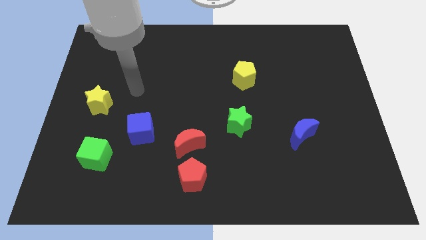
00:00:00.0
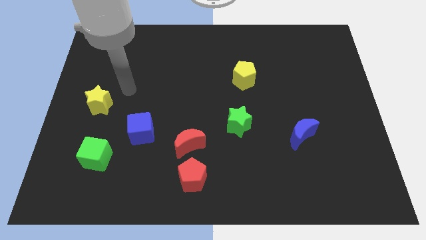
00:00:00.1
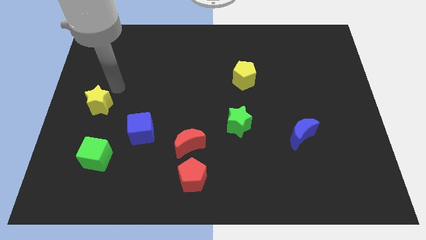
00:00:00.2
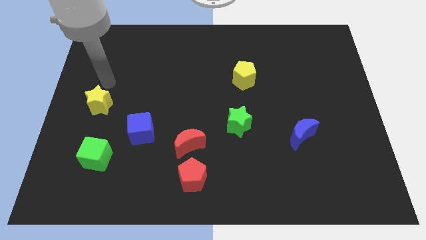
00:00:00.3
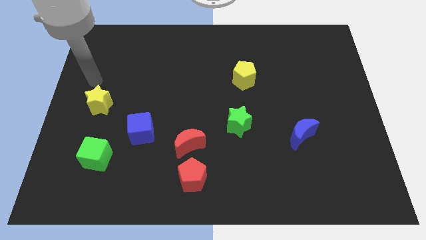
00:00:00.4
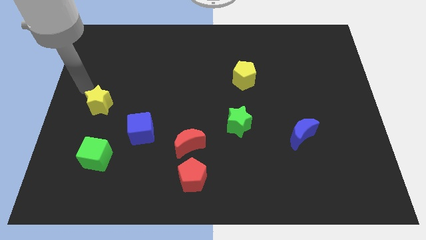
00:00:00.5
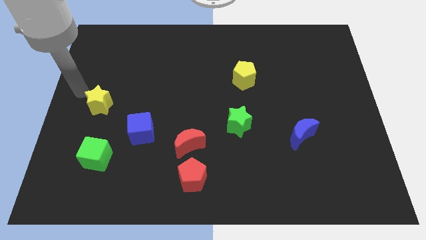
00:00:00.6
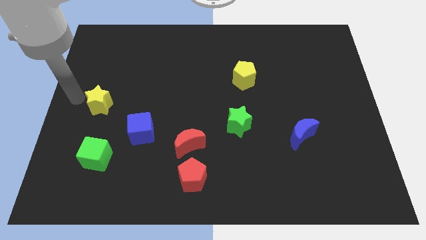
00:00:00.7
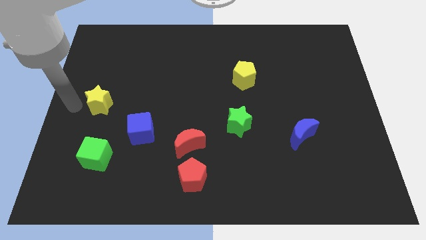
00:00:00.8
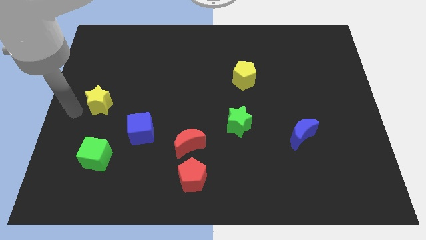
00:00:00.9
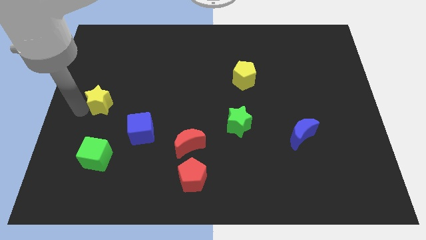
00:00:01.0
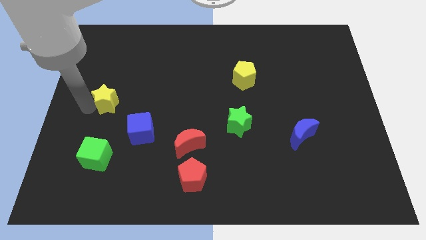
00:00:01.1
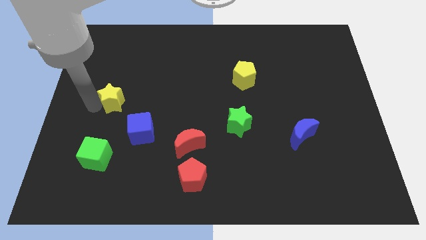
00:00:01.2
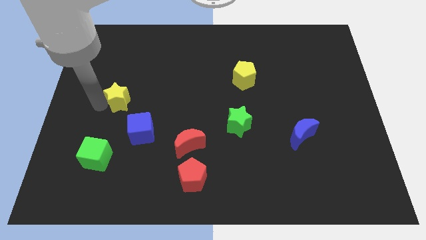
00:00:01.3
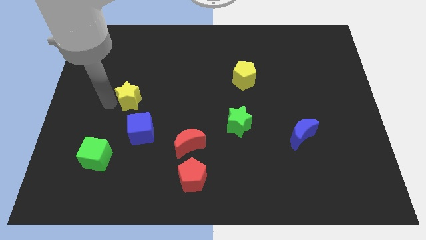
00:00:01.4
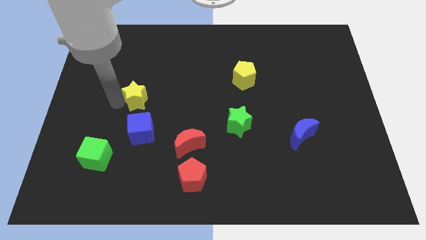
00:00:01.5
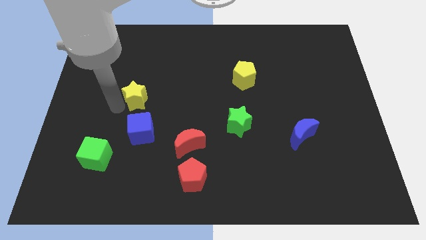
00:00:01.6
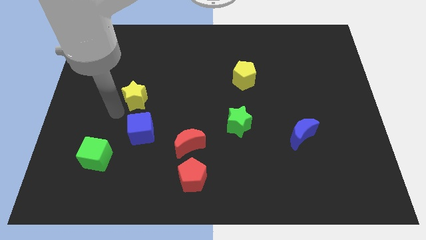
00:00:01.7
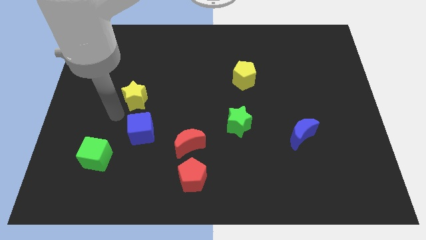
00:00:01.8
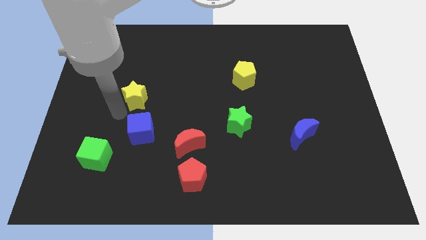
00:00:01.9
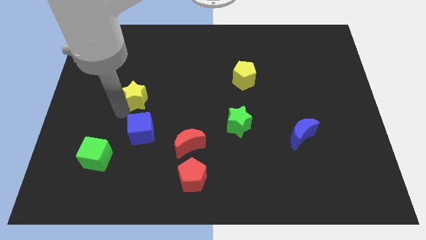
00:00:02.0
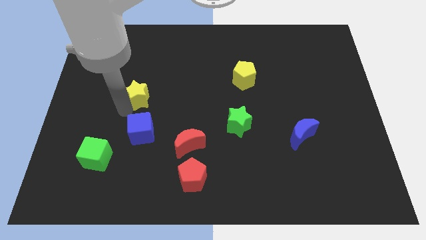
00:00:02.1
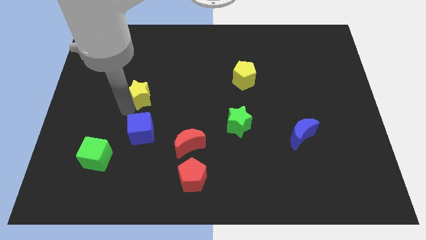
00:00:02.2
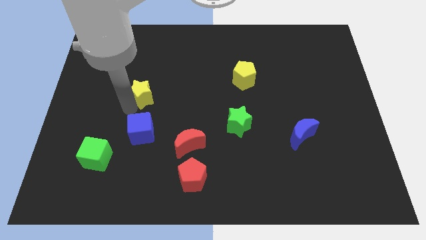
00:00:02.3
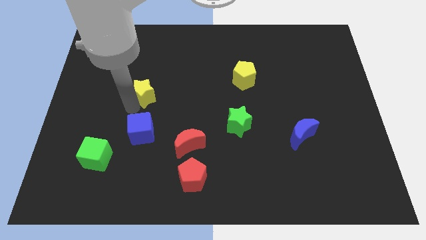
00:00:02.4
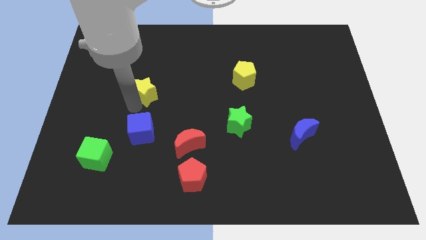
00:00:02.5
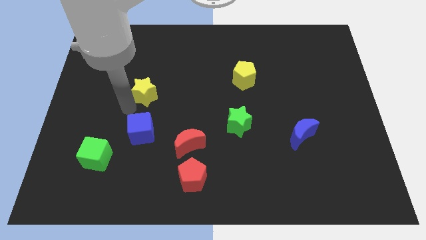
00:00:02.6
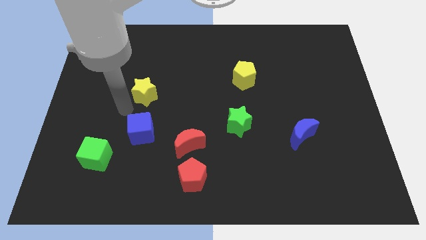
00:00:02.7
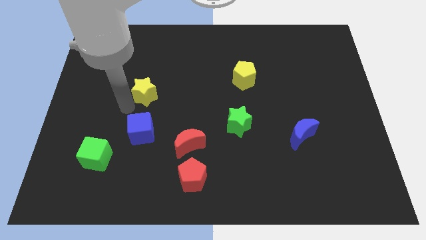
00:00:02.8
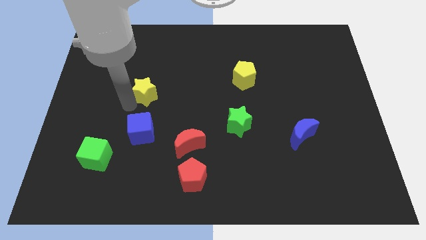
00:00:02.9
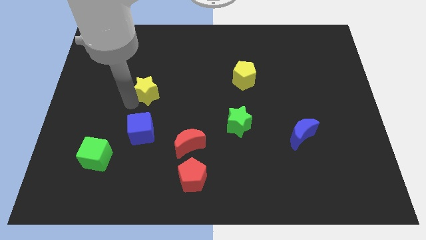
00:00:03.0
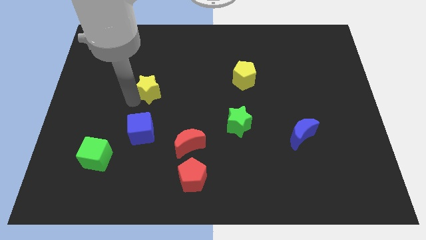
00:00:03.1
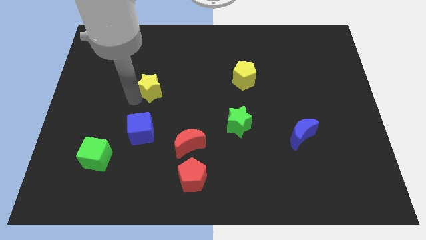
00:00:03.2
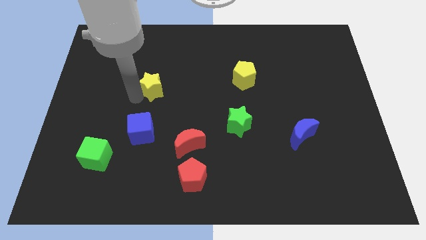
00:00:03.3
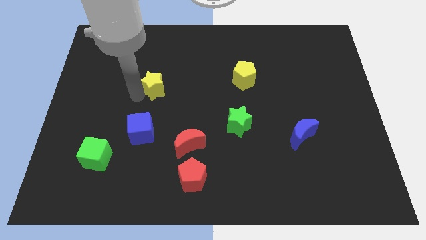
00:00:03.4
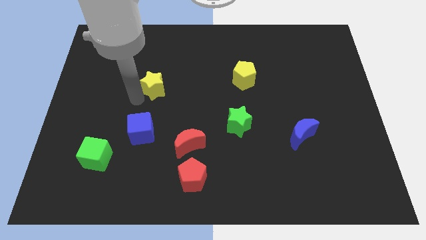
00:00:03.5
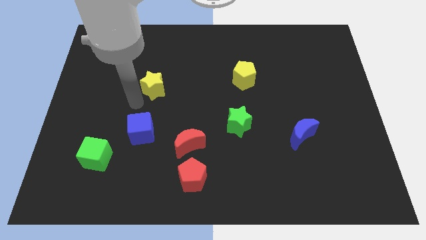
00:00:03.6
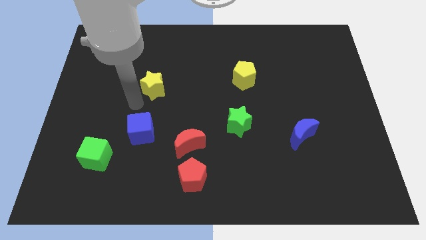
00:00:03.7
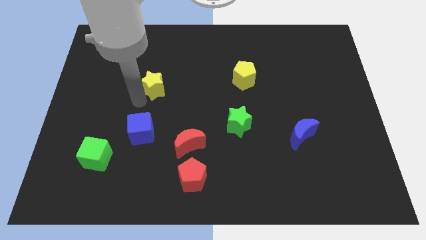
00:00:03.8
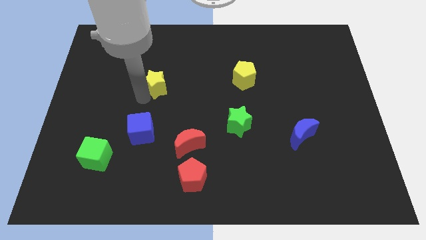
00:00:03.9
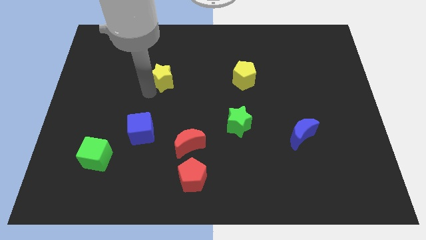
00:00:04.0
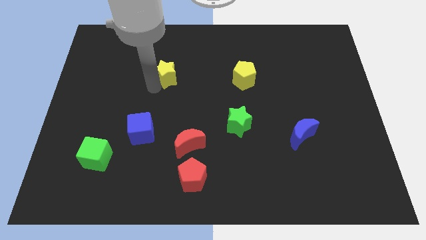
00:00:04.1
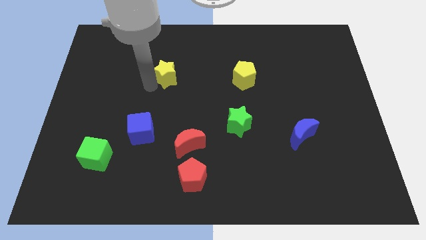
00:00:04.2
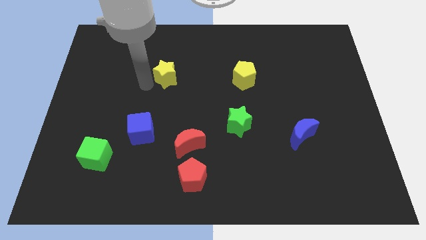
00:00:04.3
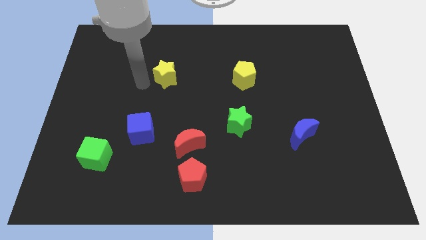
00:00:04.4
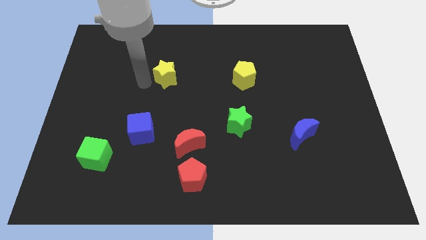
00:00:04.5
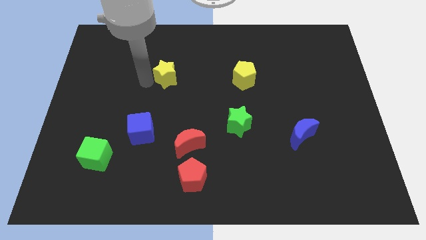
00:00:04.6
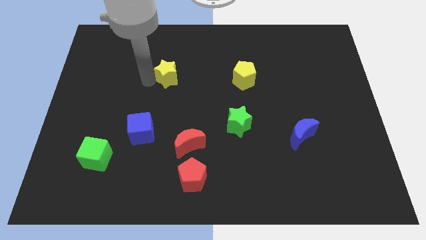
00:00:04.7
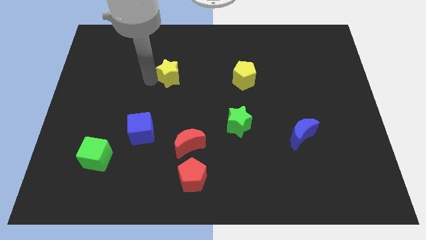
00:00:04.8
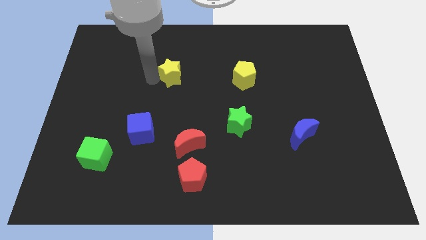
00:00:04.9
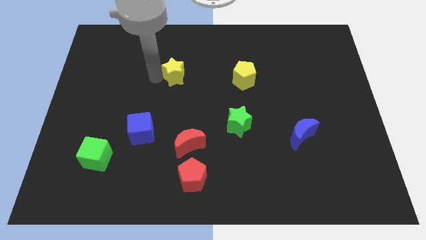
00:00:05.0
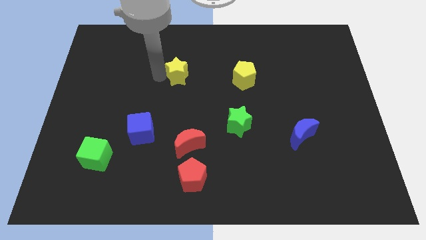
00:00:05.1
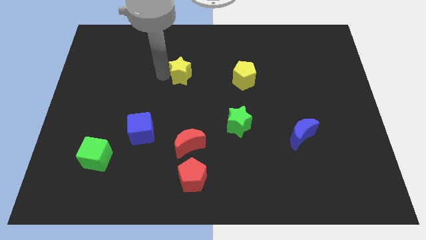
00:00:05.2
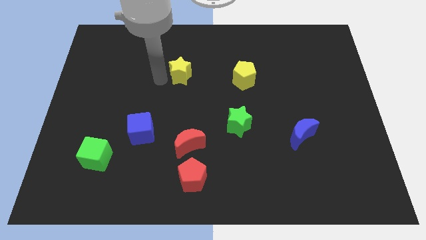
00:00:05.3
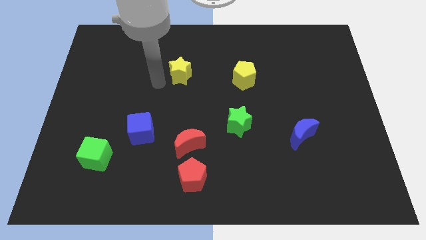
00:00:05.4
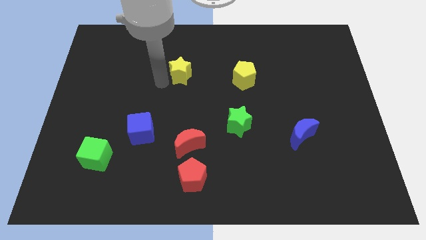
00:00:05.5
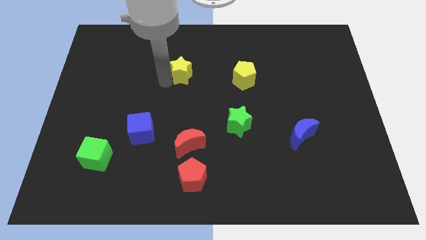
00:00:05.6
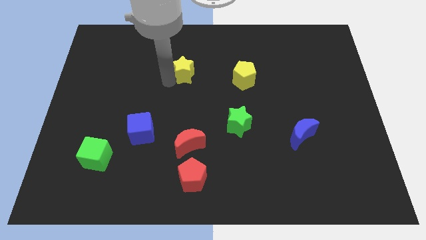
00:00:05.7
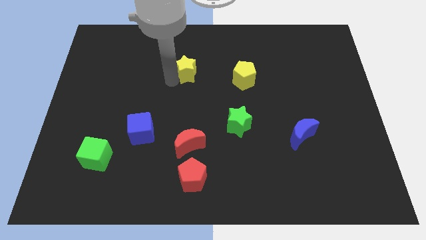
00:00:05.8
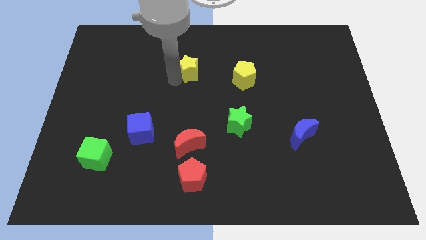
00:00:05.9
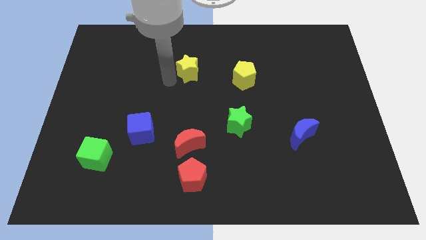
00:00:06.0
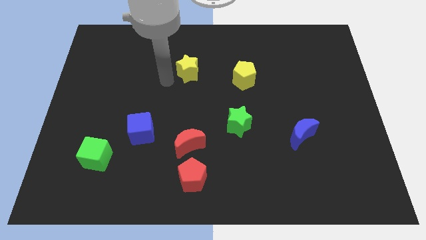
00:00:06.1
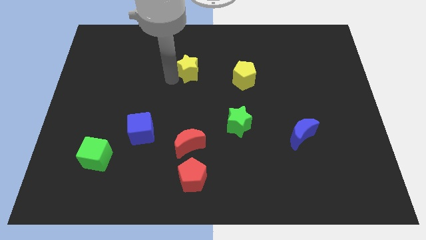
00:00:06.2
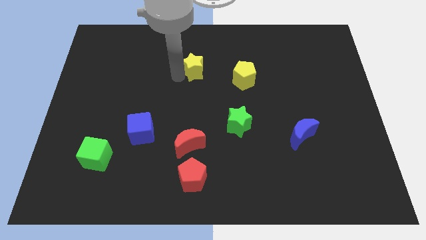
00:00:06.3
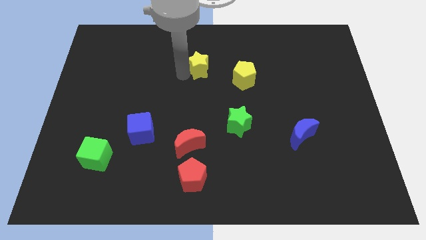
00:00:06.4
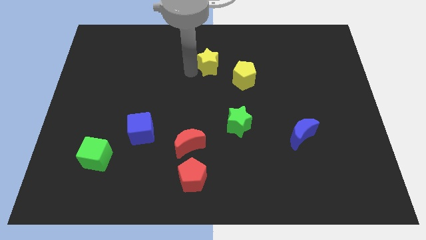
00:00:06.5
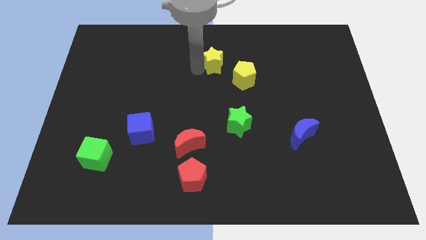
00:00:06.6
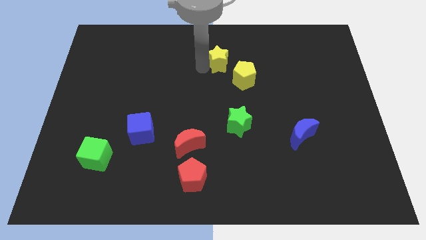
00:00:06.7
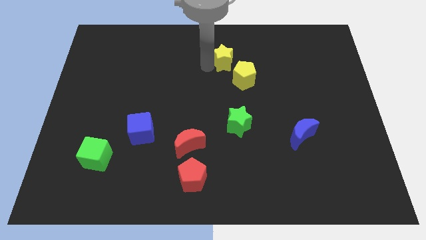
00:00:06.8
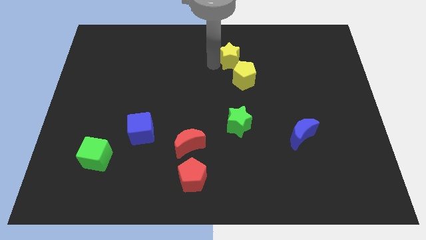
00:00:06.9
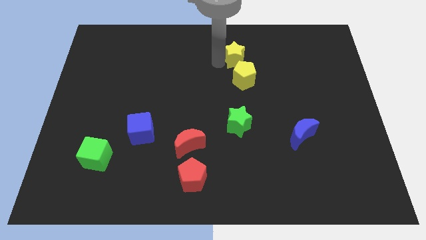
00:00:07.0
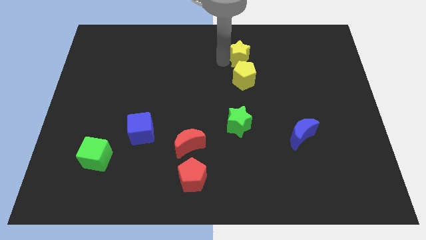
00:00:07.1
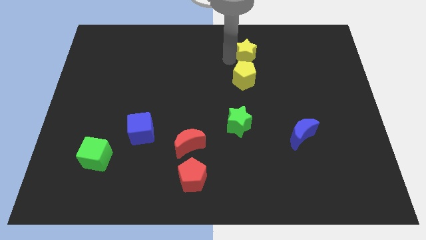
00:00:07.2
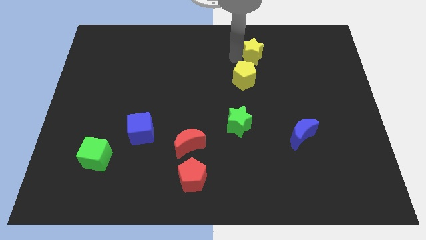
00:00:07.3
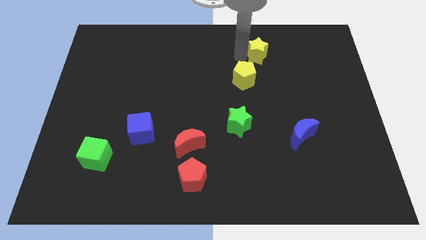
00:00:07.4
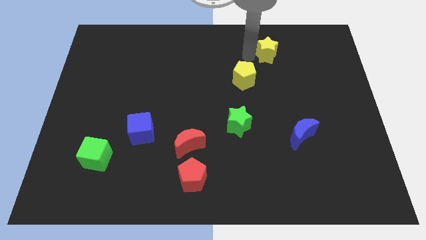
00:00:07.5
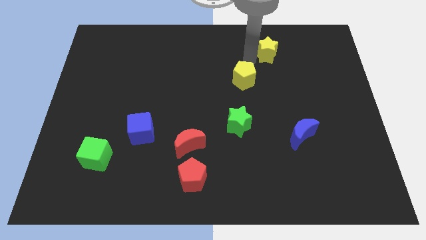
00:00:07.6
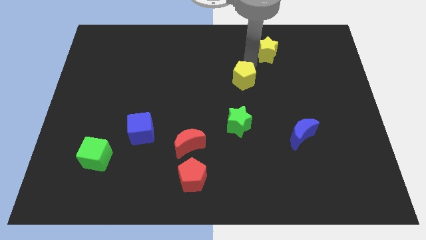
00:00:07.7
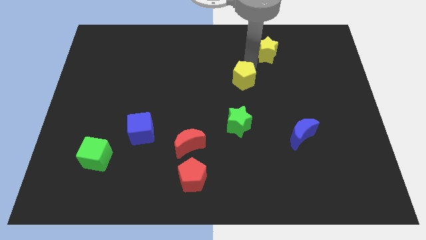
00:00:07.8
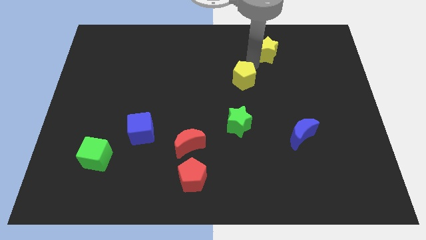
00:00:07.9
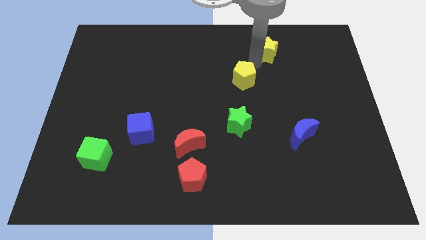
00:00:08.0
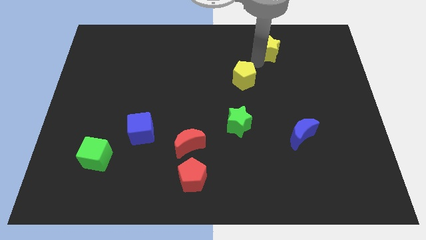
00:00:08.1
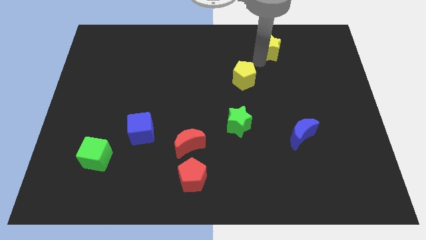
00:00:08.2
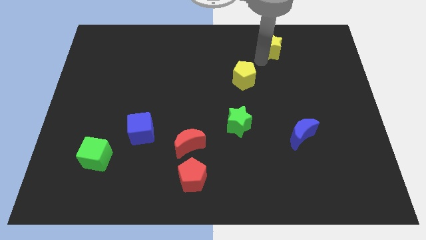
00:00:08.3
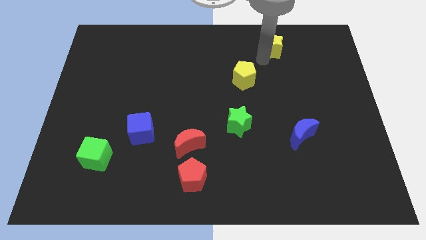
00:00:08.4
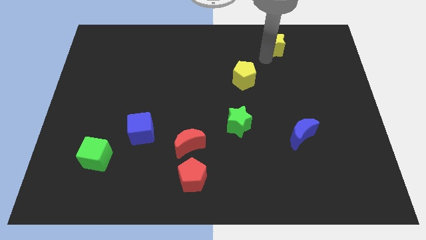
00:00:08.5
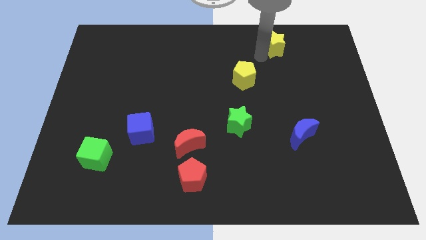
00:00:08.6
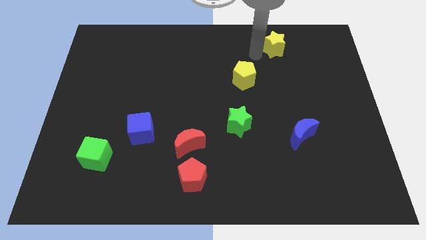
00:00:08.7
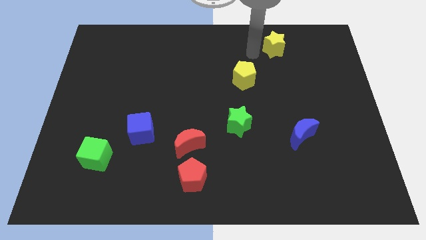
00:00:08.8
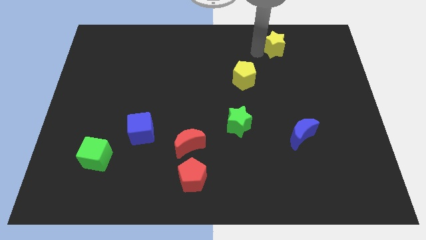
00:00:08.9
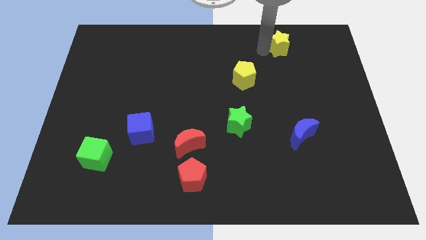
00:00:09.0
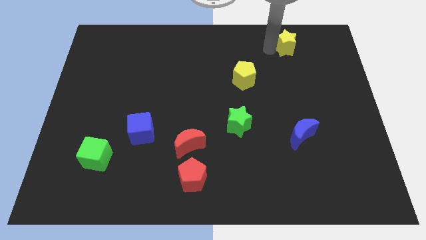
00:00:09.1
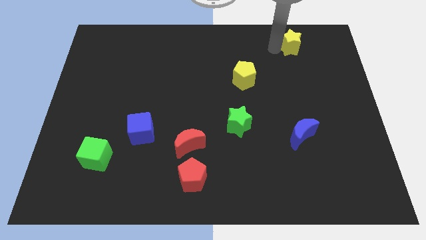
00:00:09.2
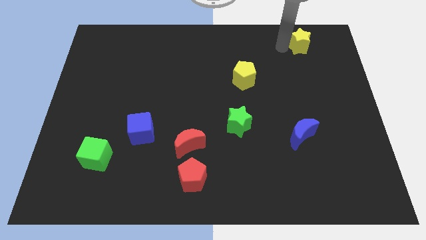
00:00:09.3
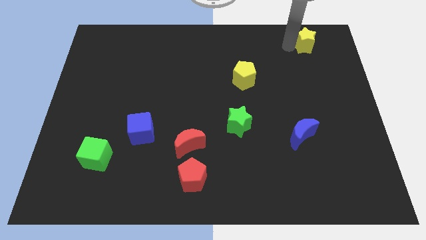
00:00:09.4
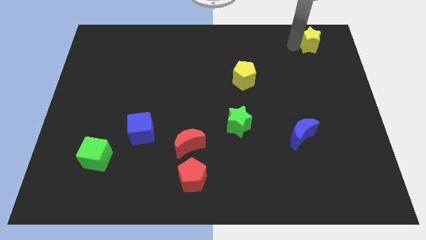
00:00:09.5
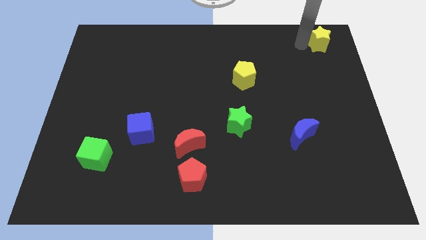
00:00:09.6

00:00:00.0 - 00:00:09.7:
move the yellow star to the top right corner
